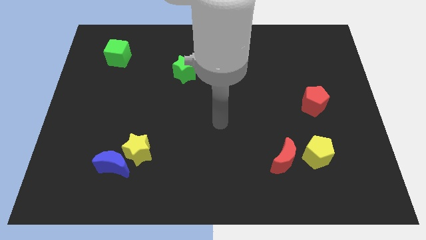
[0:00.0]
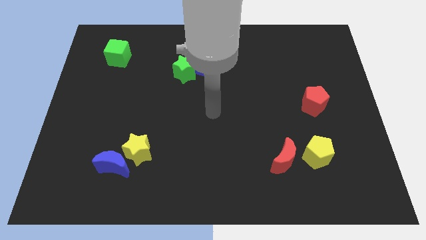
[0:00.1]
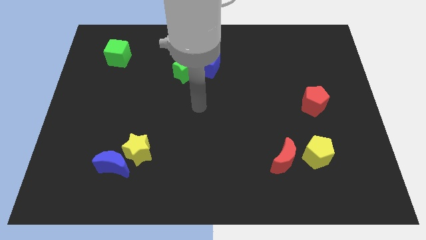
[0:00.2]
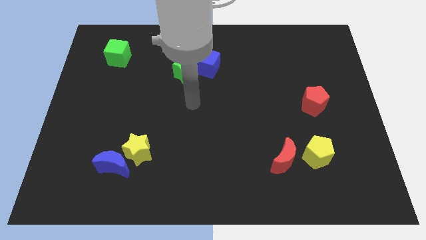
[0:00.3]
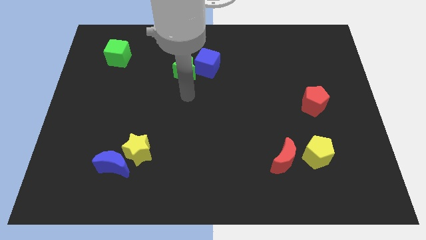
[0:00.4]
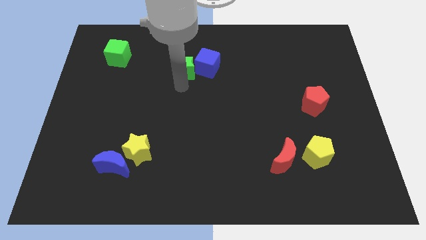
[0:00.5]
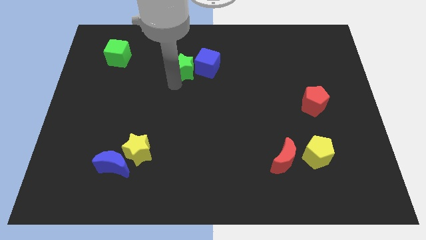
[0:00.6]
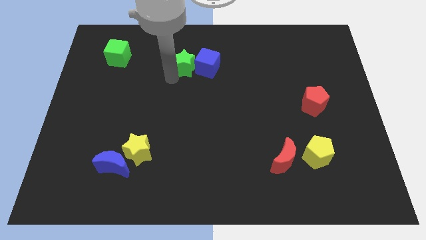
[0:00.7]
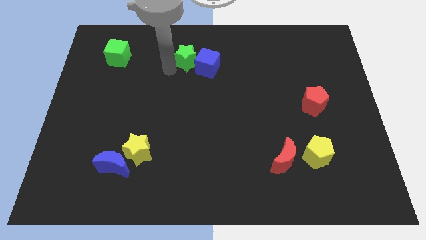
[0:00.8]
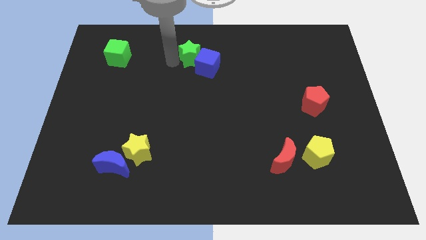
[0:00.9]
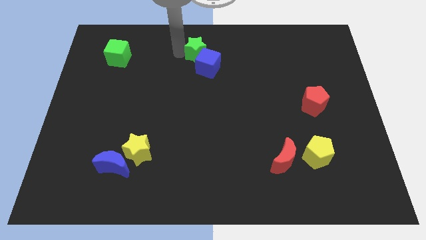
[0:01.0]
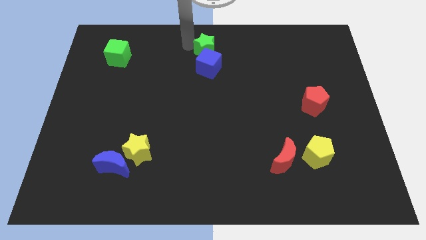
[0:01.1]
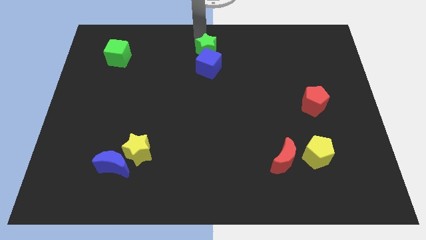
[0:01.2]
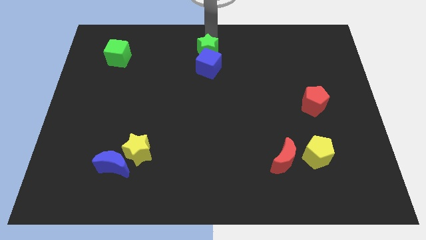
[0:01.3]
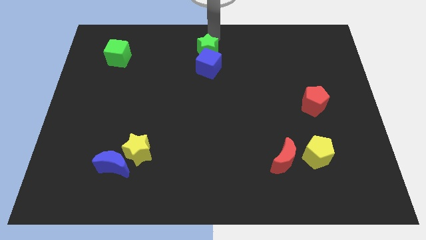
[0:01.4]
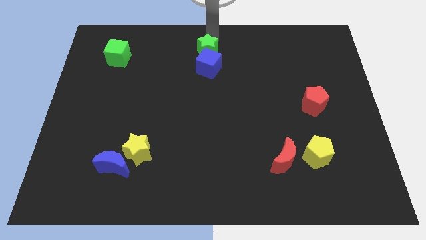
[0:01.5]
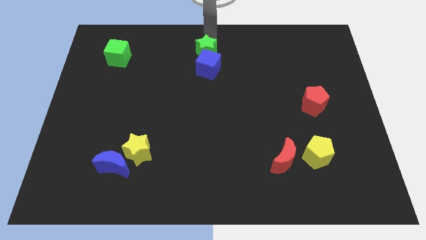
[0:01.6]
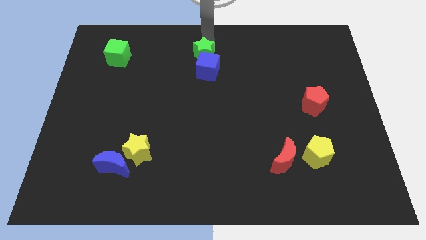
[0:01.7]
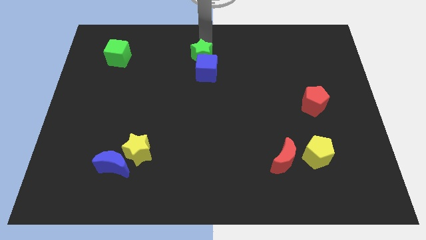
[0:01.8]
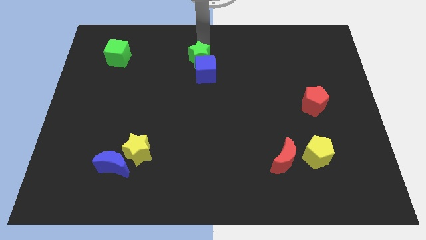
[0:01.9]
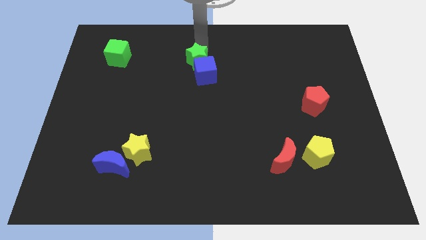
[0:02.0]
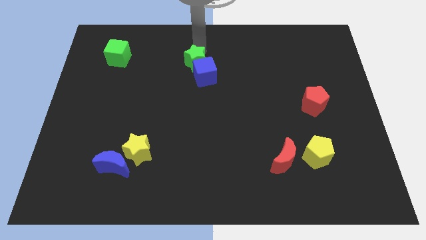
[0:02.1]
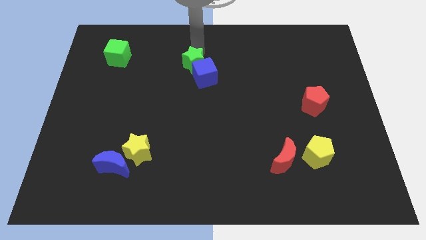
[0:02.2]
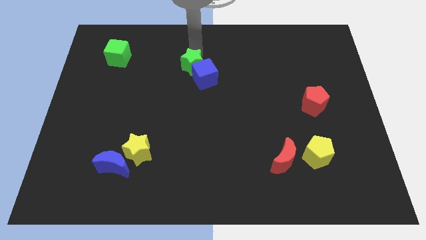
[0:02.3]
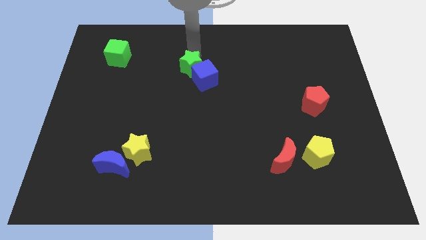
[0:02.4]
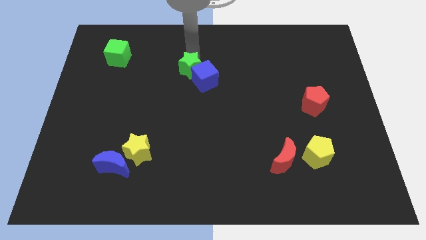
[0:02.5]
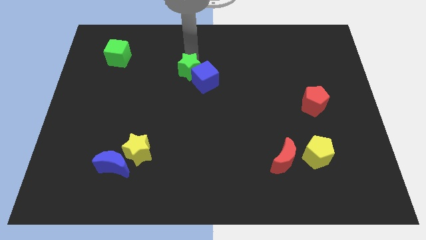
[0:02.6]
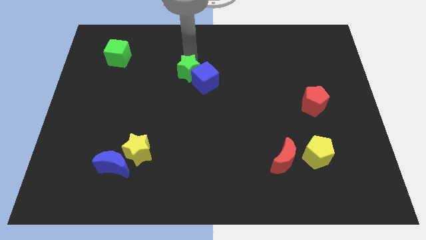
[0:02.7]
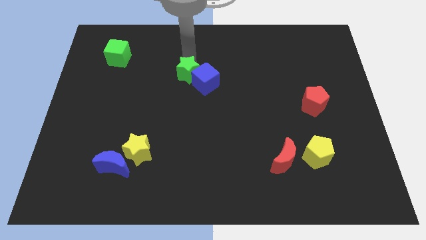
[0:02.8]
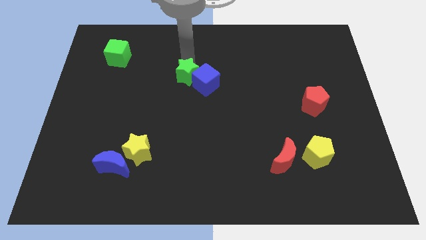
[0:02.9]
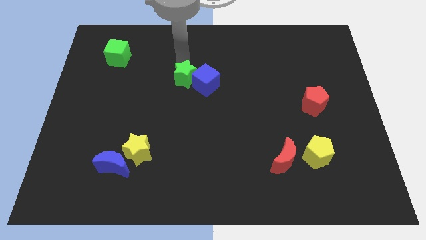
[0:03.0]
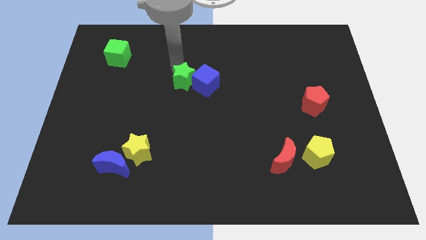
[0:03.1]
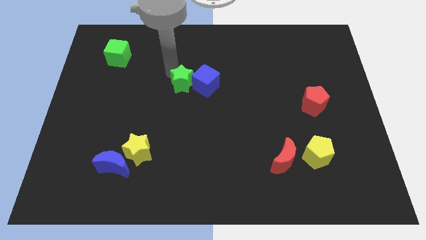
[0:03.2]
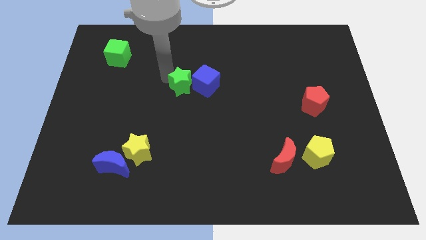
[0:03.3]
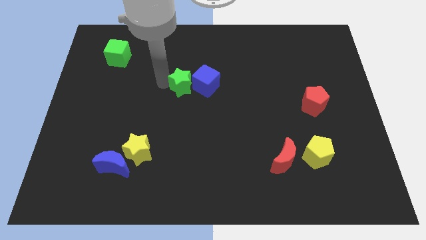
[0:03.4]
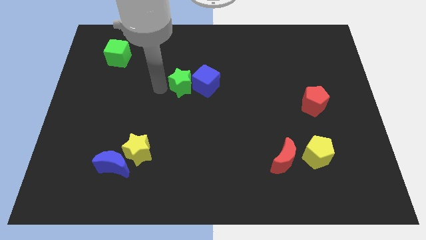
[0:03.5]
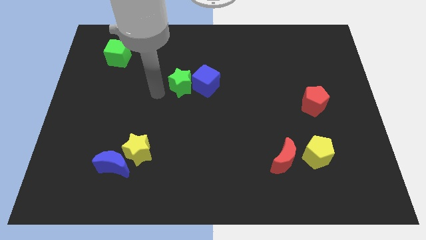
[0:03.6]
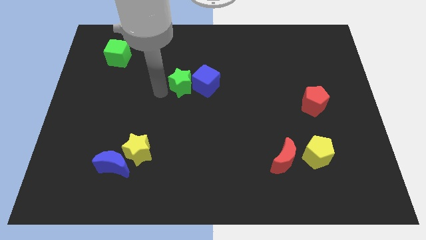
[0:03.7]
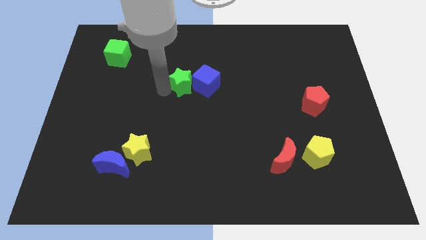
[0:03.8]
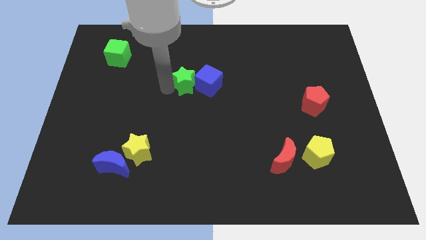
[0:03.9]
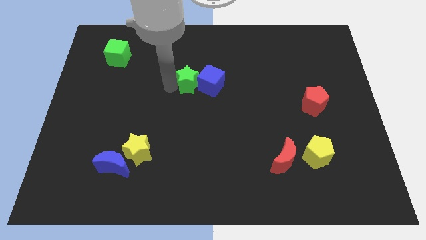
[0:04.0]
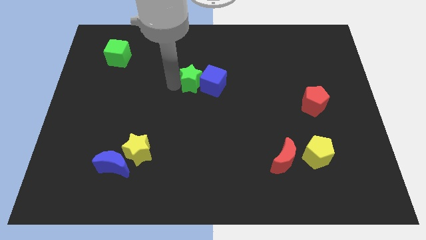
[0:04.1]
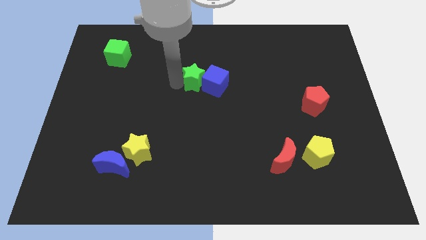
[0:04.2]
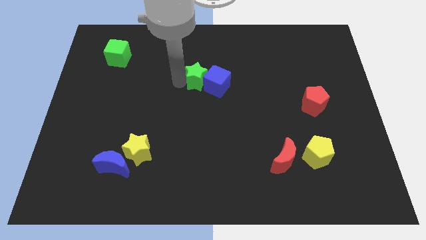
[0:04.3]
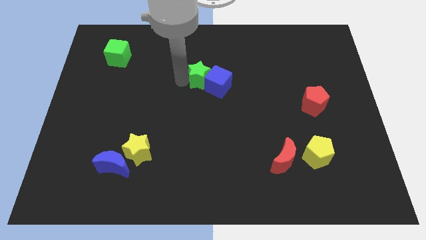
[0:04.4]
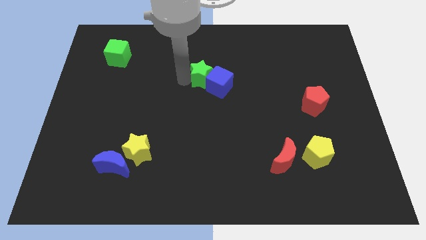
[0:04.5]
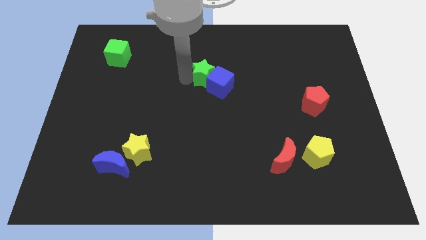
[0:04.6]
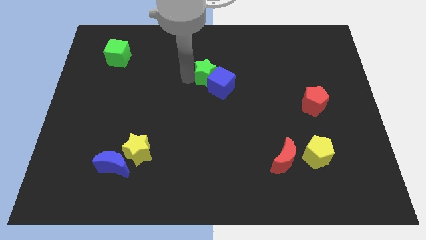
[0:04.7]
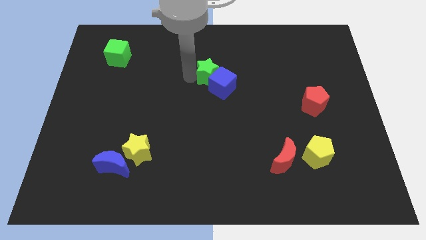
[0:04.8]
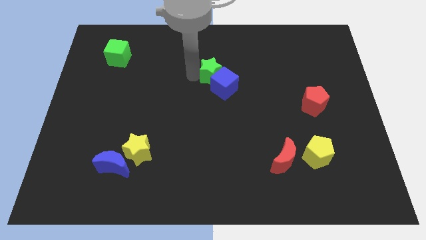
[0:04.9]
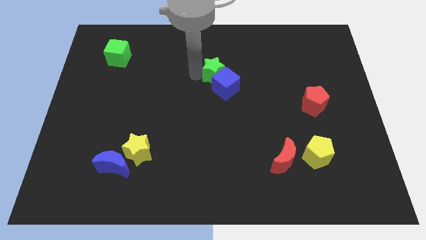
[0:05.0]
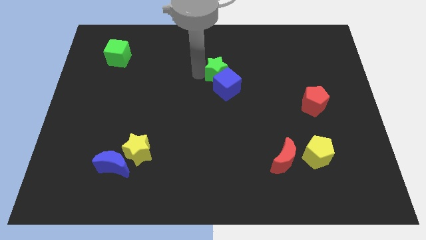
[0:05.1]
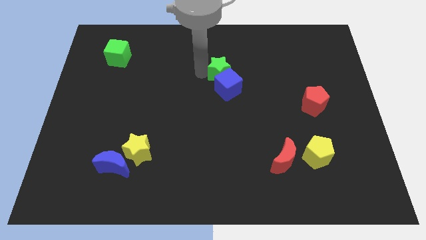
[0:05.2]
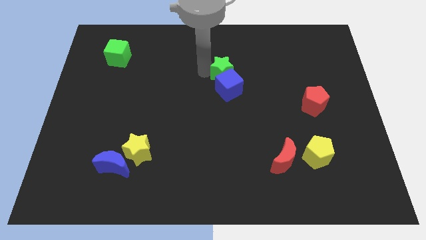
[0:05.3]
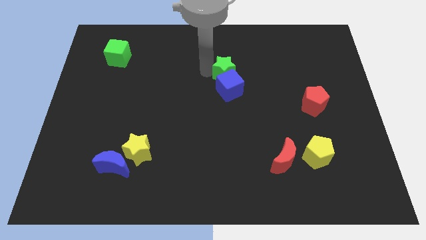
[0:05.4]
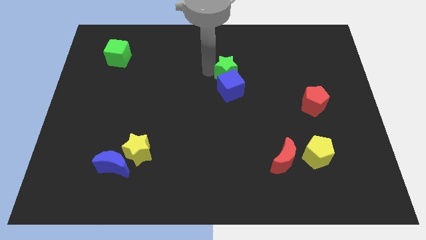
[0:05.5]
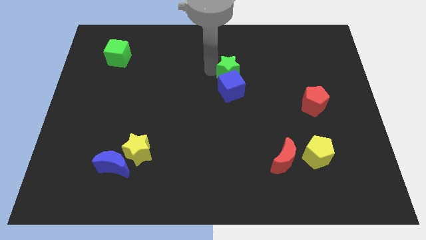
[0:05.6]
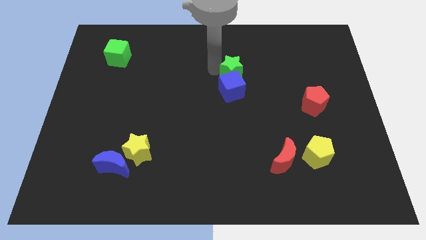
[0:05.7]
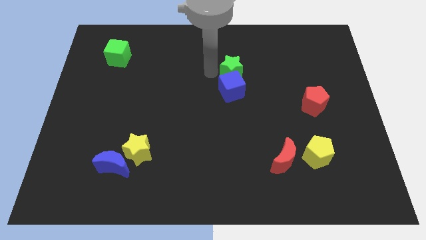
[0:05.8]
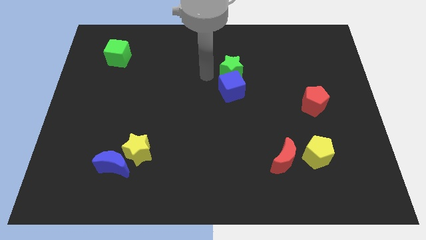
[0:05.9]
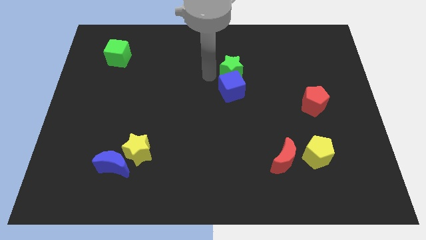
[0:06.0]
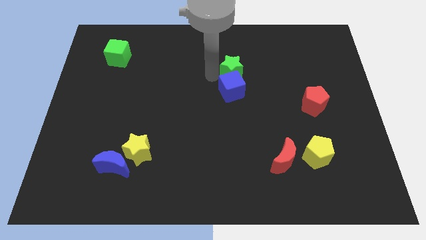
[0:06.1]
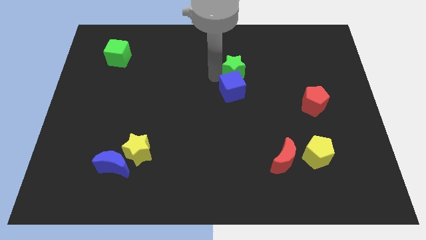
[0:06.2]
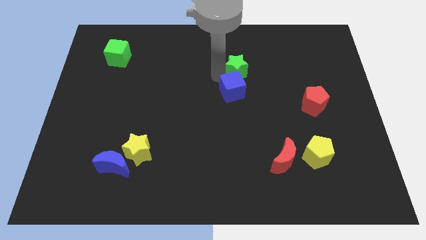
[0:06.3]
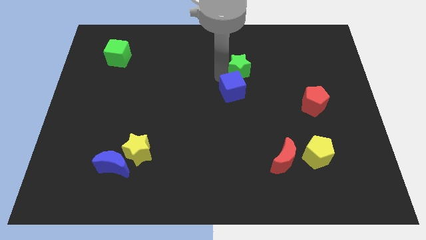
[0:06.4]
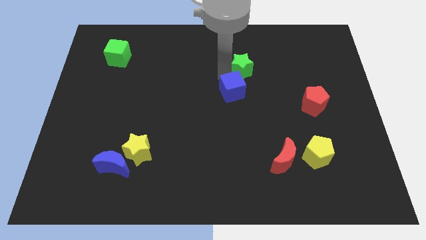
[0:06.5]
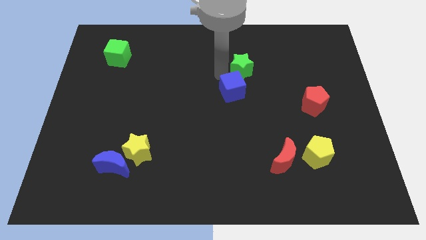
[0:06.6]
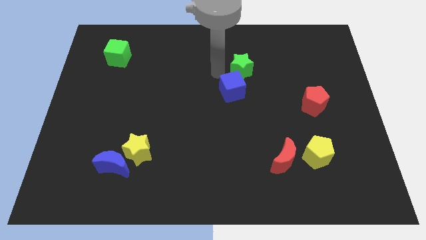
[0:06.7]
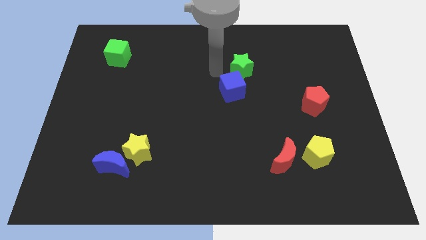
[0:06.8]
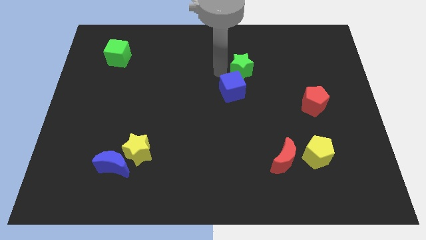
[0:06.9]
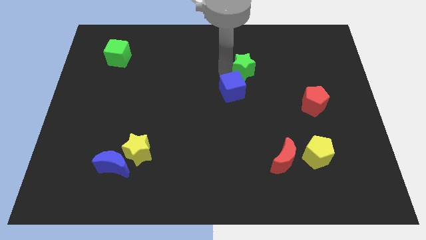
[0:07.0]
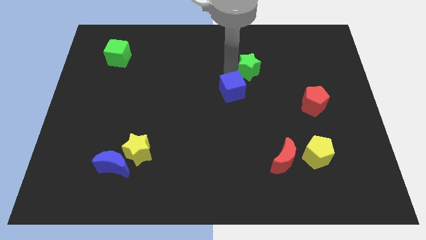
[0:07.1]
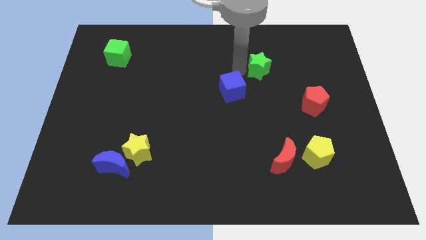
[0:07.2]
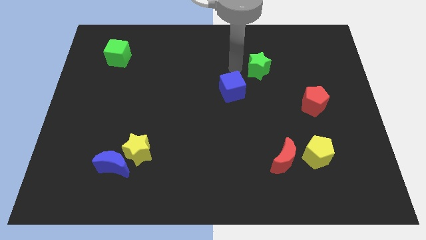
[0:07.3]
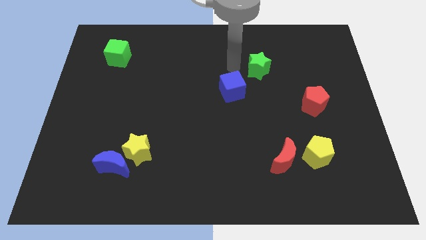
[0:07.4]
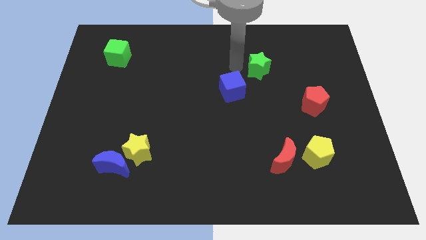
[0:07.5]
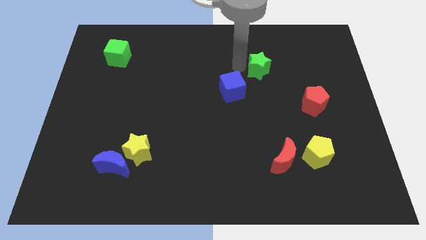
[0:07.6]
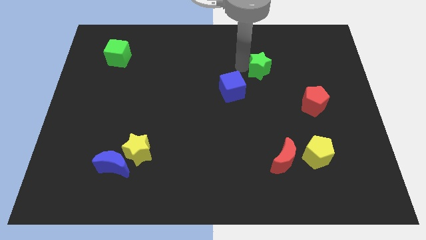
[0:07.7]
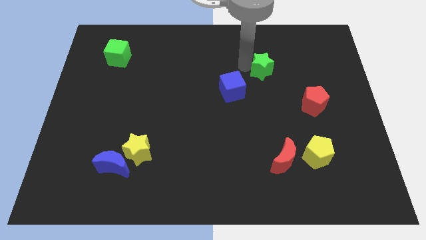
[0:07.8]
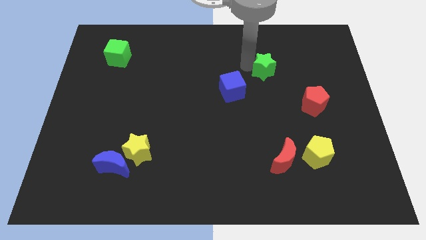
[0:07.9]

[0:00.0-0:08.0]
push the green star to the right

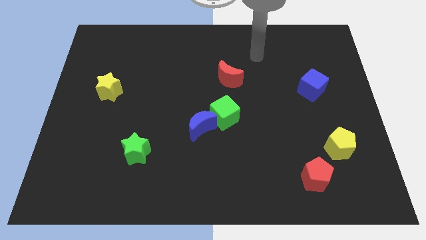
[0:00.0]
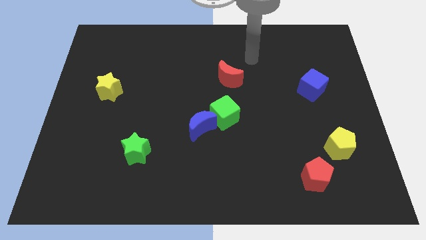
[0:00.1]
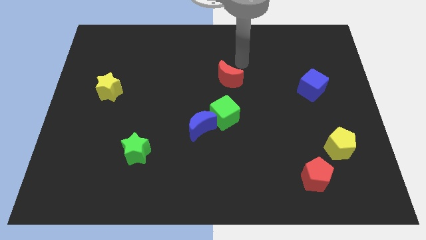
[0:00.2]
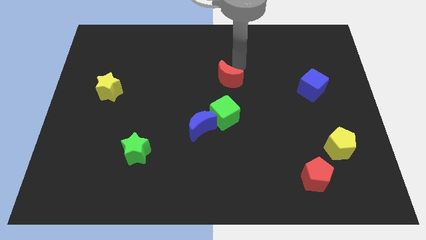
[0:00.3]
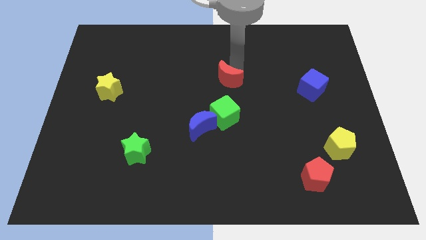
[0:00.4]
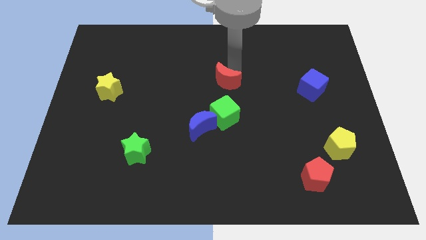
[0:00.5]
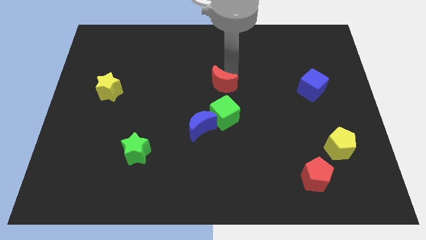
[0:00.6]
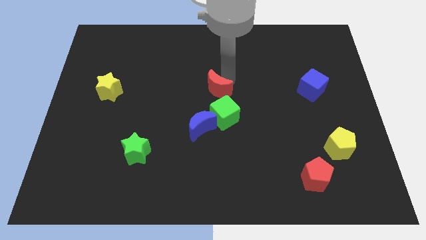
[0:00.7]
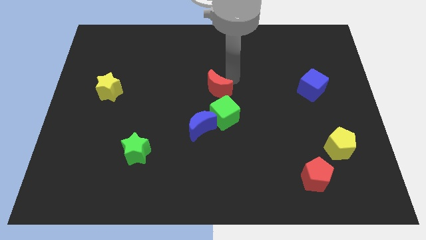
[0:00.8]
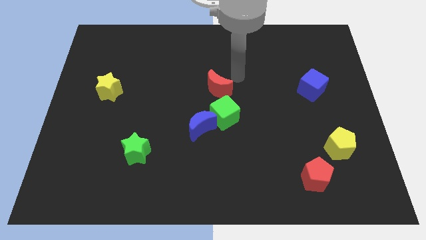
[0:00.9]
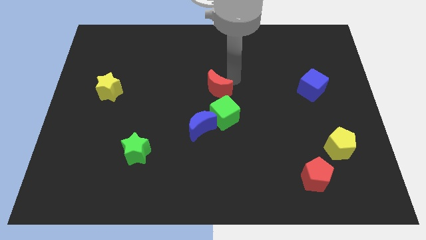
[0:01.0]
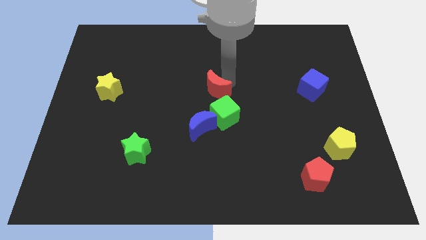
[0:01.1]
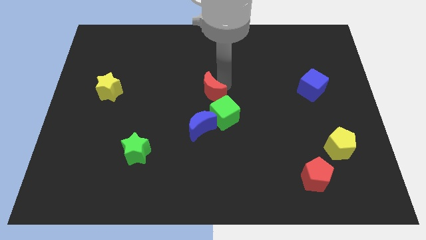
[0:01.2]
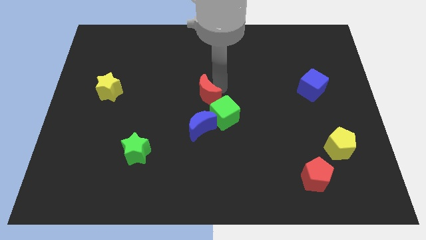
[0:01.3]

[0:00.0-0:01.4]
move the red moon diagonally down and left a bit
